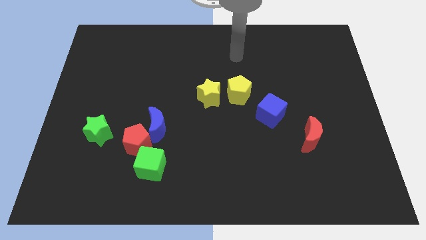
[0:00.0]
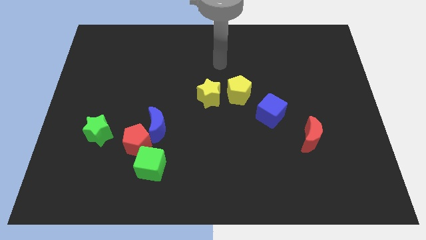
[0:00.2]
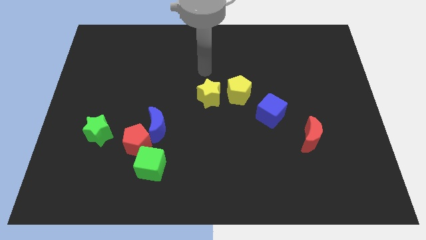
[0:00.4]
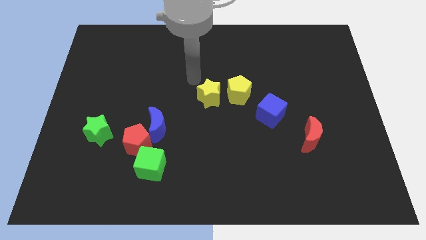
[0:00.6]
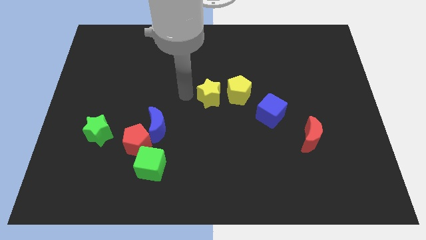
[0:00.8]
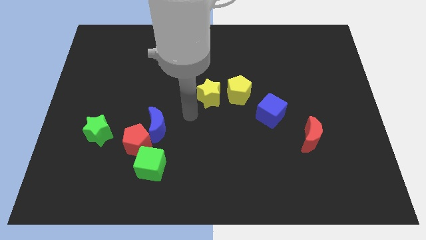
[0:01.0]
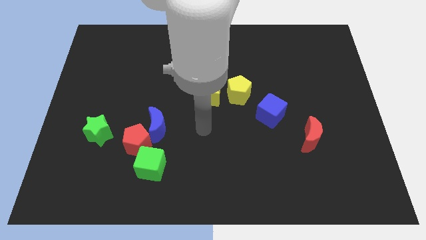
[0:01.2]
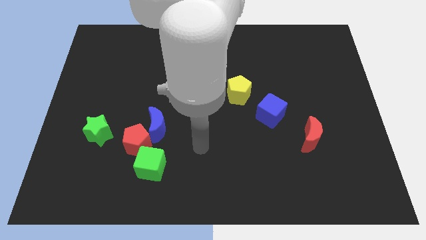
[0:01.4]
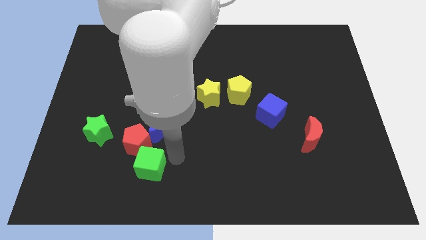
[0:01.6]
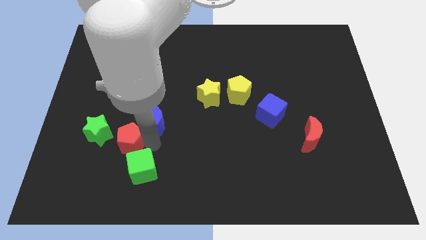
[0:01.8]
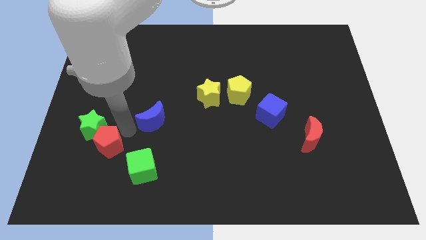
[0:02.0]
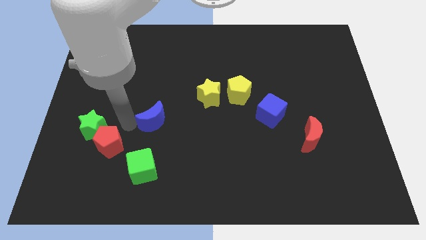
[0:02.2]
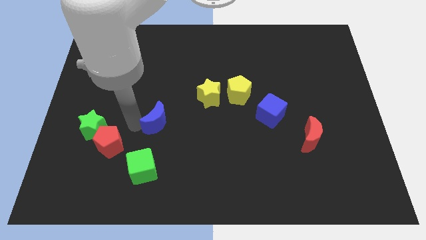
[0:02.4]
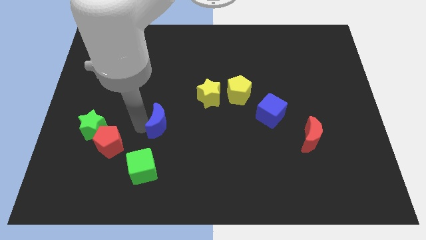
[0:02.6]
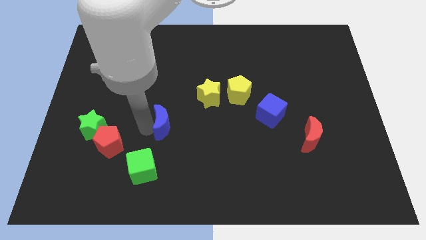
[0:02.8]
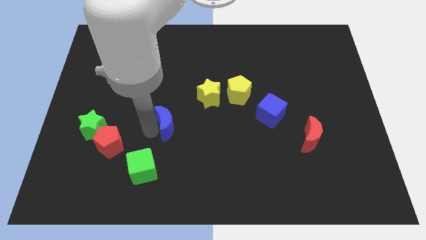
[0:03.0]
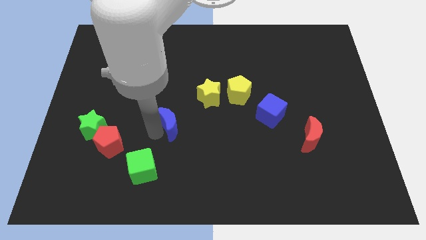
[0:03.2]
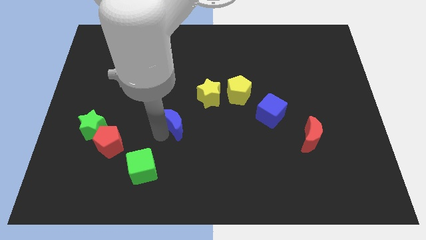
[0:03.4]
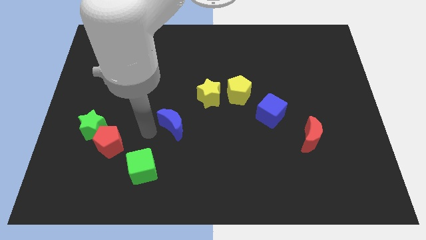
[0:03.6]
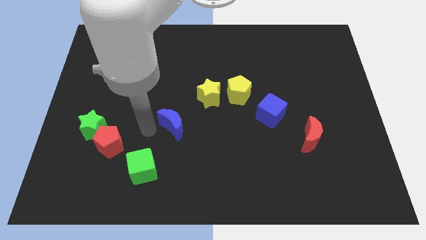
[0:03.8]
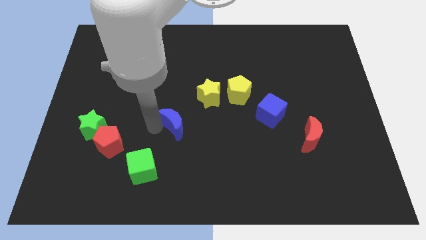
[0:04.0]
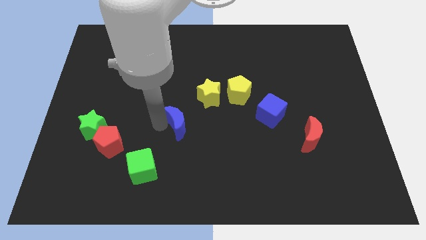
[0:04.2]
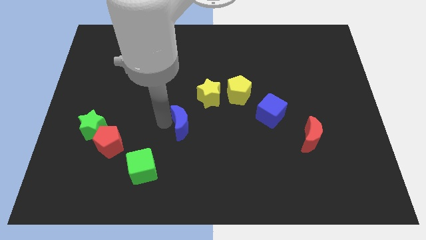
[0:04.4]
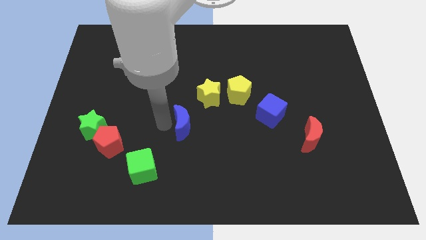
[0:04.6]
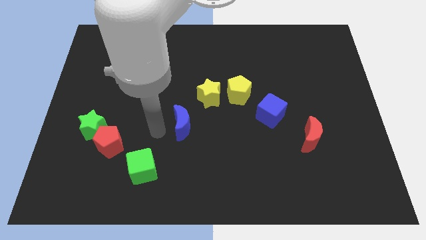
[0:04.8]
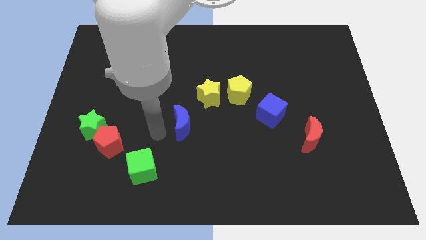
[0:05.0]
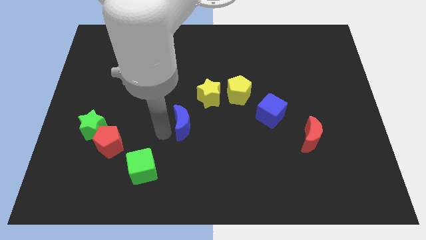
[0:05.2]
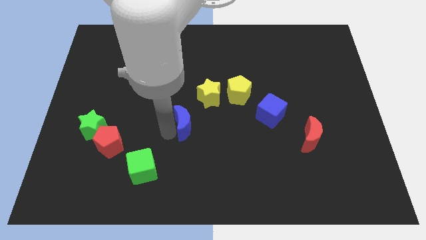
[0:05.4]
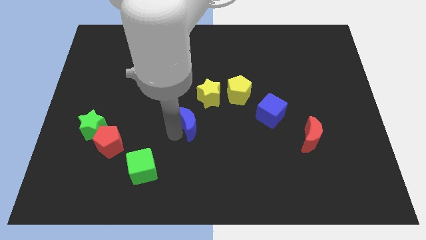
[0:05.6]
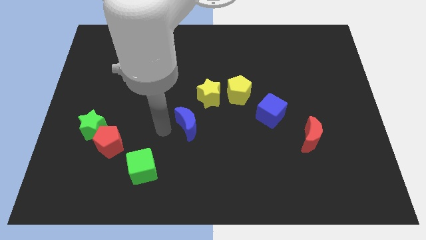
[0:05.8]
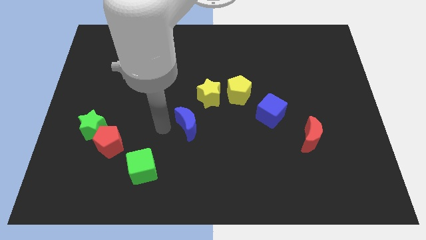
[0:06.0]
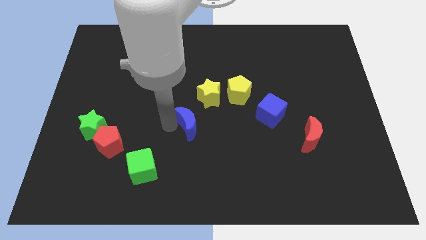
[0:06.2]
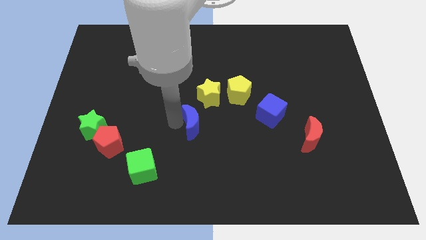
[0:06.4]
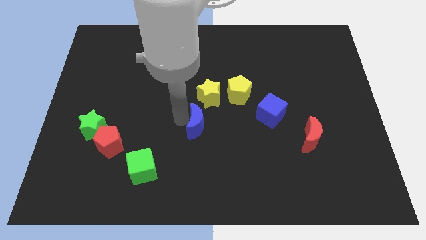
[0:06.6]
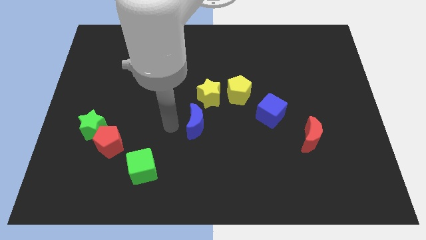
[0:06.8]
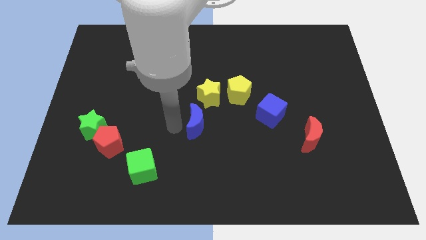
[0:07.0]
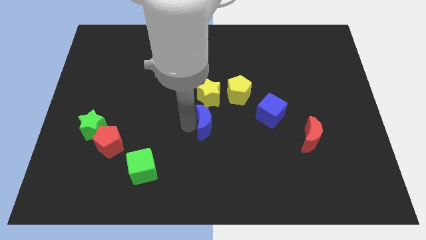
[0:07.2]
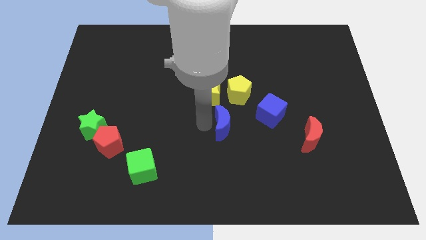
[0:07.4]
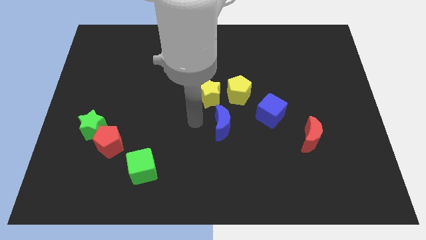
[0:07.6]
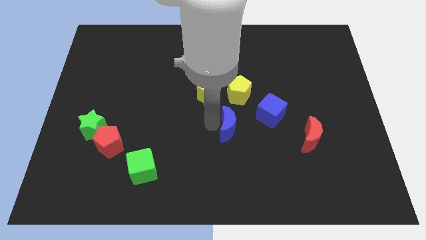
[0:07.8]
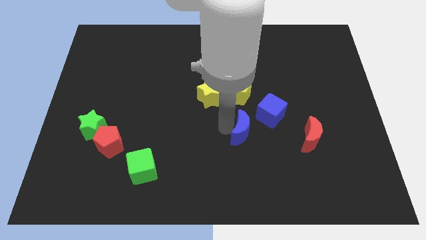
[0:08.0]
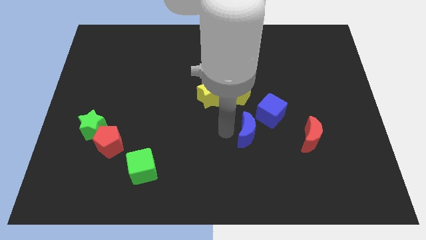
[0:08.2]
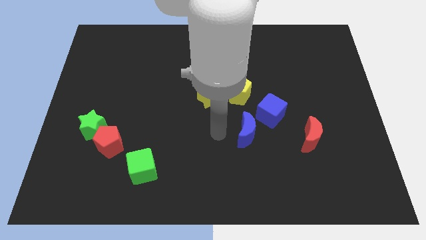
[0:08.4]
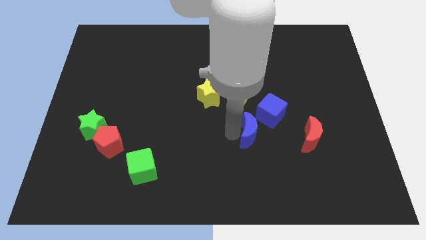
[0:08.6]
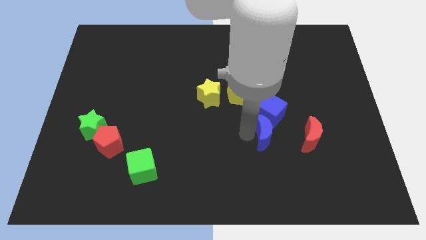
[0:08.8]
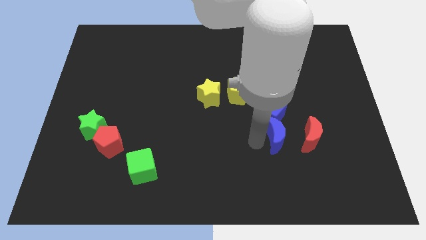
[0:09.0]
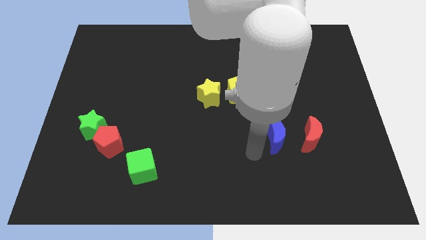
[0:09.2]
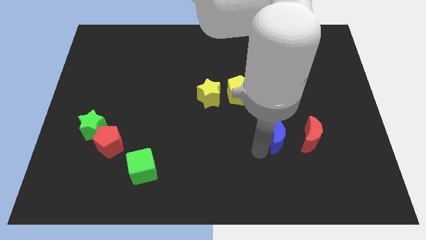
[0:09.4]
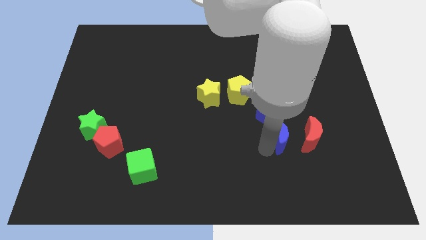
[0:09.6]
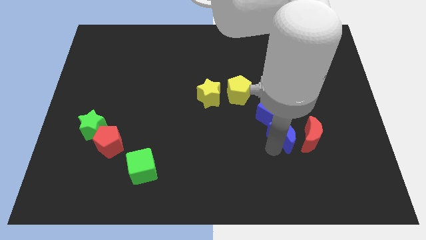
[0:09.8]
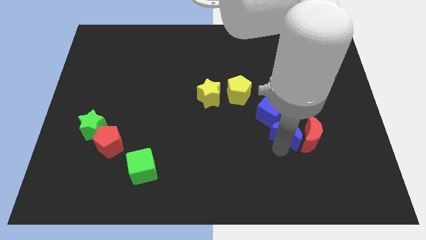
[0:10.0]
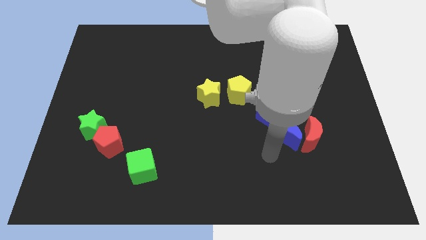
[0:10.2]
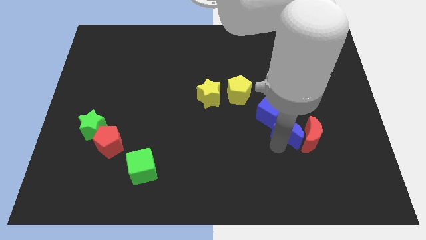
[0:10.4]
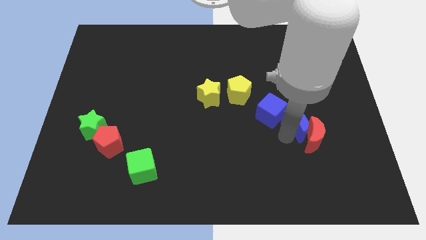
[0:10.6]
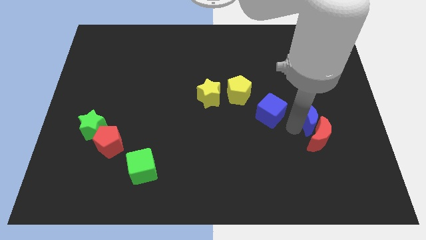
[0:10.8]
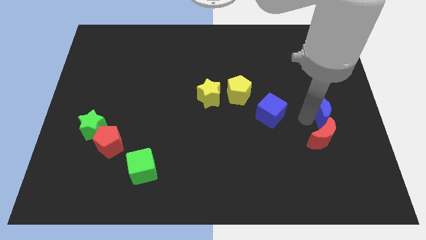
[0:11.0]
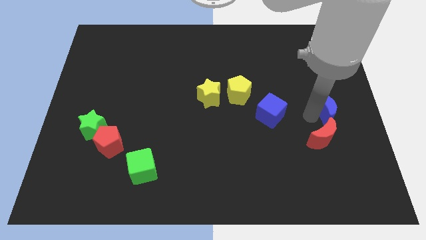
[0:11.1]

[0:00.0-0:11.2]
move the blue moon to the right side of the board

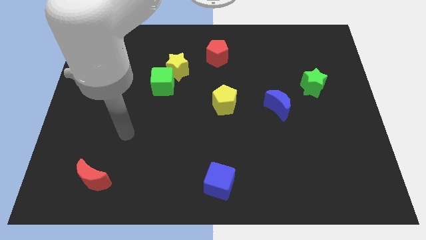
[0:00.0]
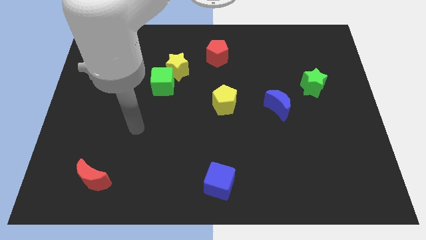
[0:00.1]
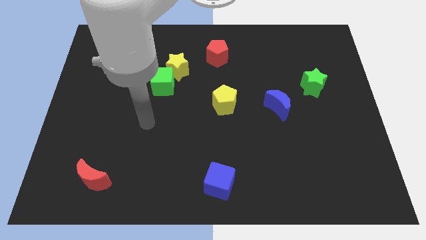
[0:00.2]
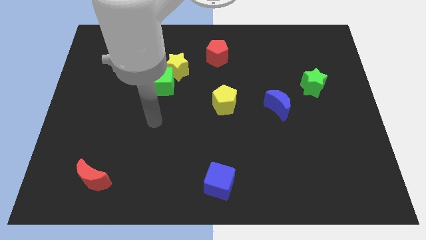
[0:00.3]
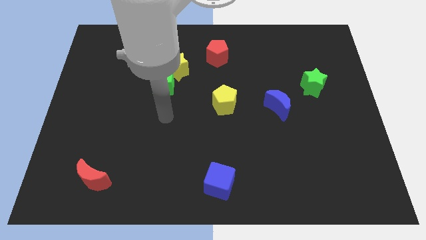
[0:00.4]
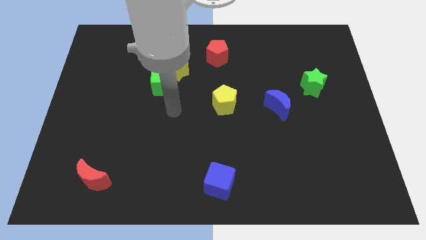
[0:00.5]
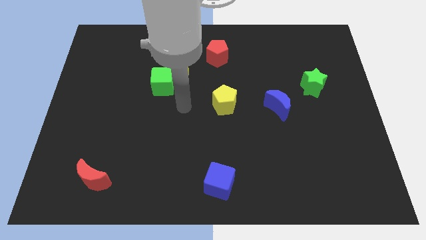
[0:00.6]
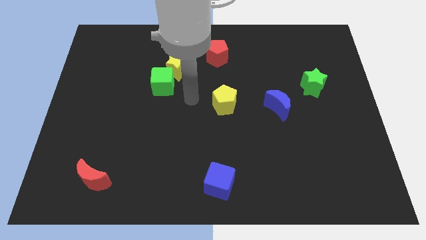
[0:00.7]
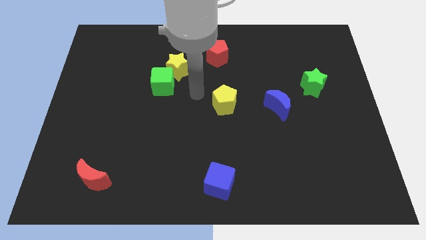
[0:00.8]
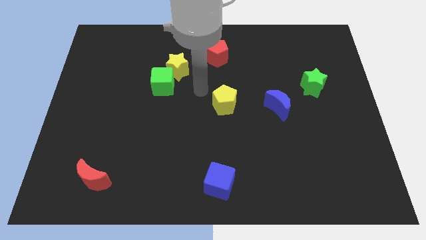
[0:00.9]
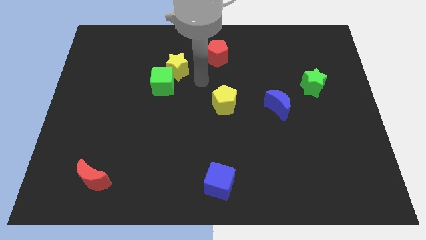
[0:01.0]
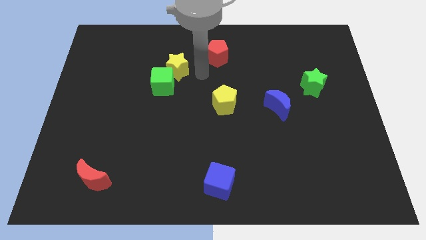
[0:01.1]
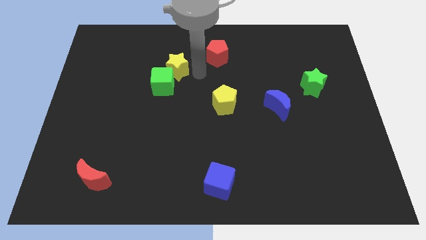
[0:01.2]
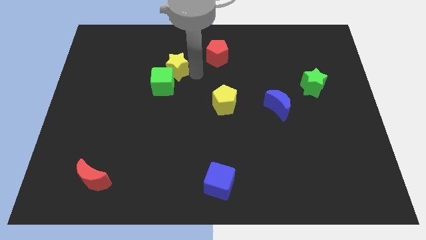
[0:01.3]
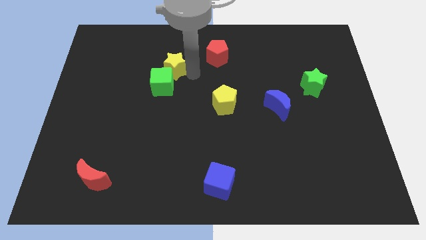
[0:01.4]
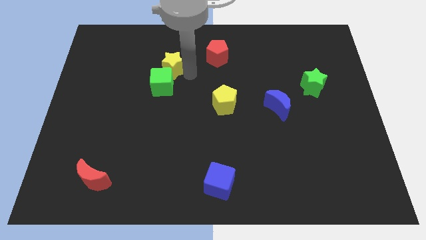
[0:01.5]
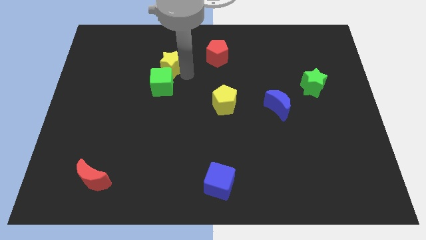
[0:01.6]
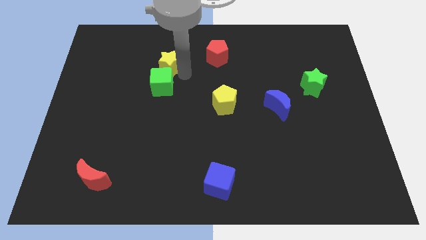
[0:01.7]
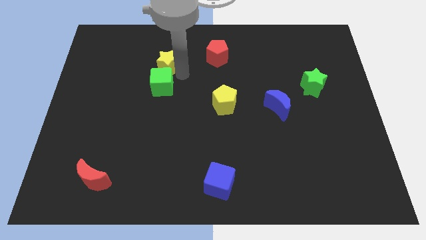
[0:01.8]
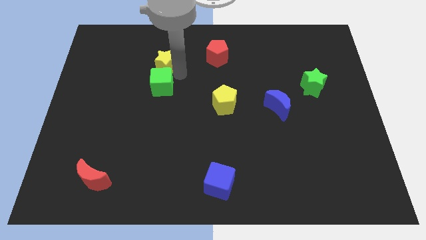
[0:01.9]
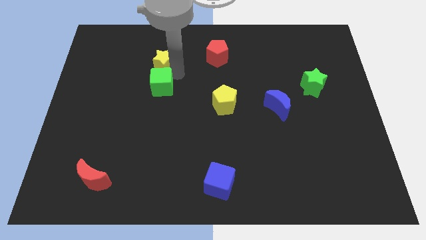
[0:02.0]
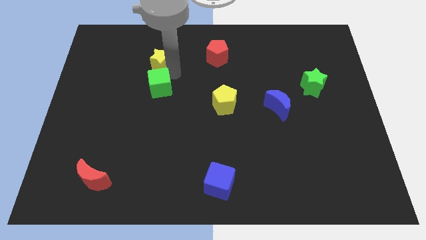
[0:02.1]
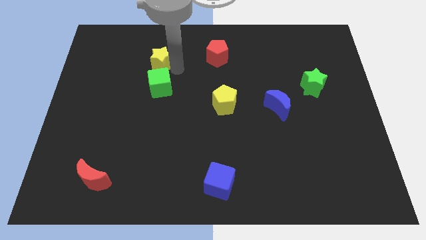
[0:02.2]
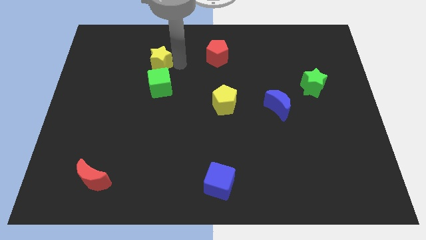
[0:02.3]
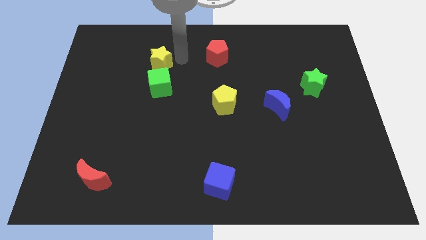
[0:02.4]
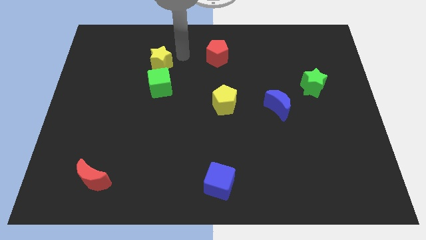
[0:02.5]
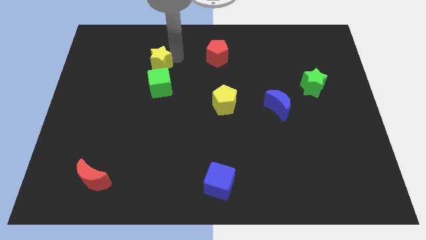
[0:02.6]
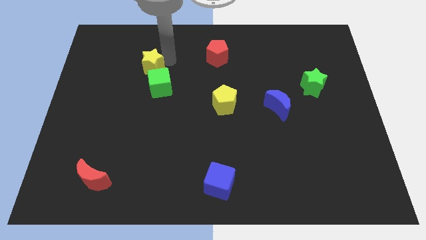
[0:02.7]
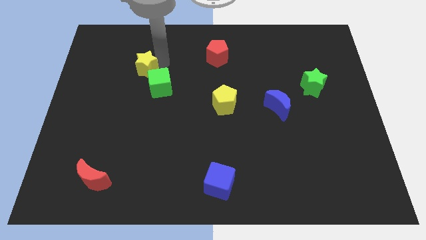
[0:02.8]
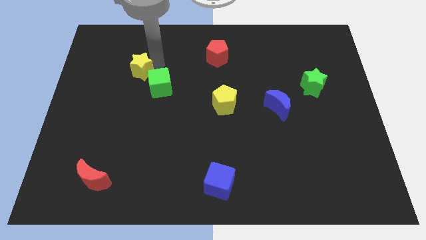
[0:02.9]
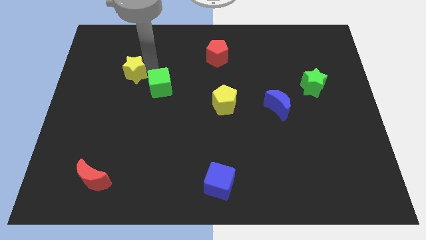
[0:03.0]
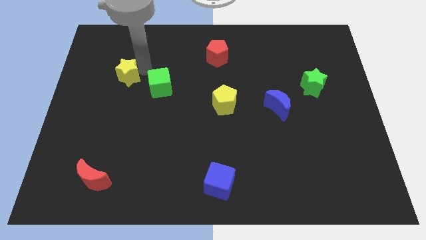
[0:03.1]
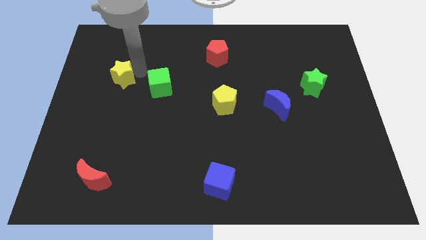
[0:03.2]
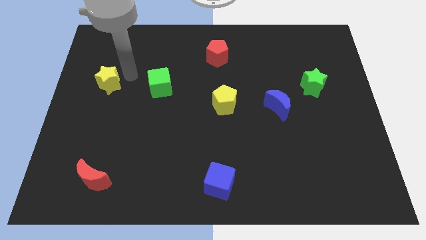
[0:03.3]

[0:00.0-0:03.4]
slide the yellow star to the center left
